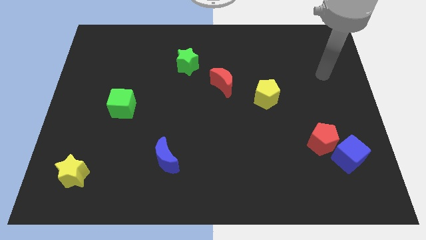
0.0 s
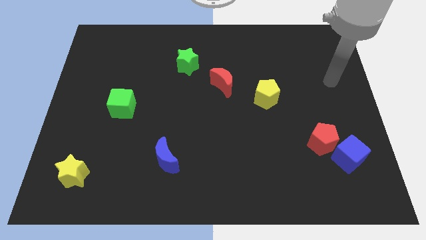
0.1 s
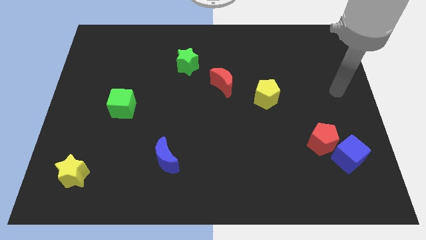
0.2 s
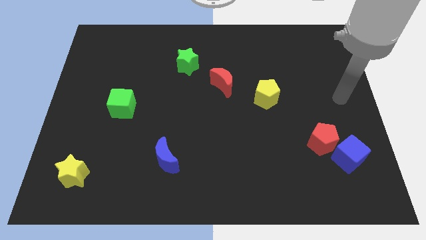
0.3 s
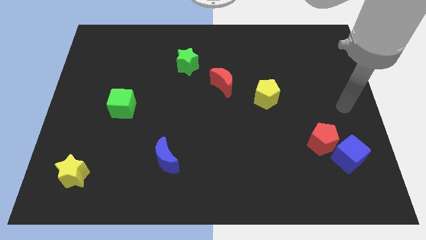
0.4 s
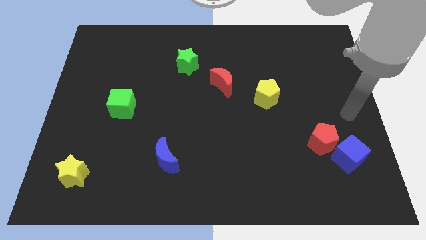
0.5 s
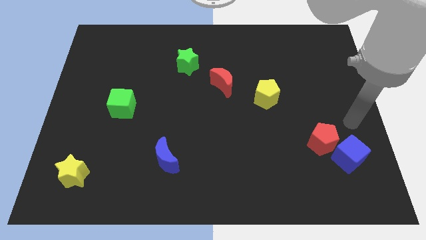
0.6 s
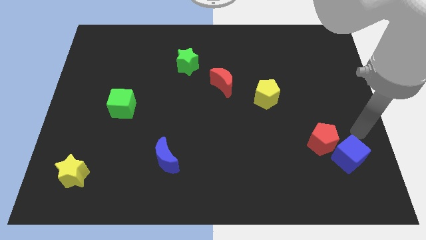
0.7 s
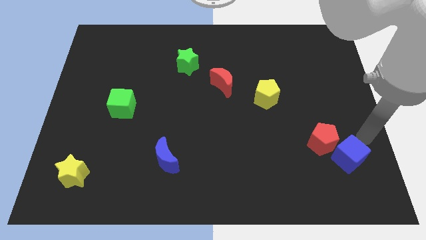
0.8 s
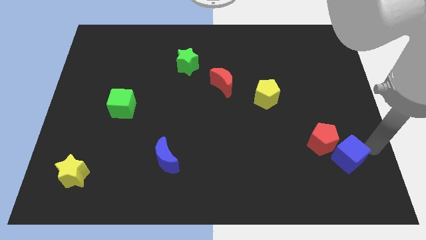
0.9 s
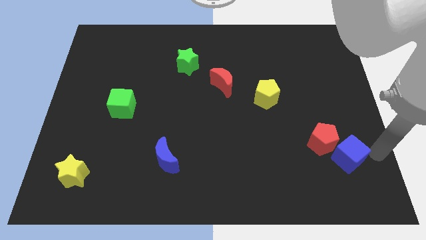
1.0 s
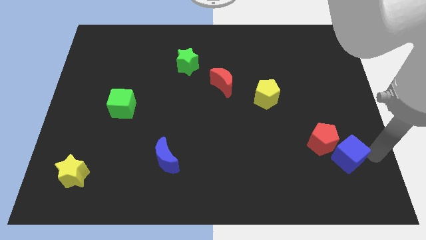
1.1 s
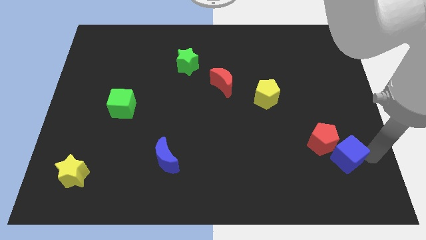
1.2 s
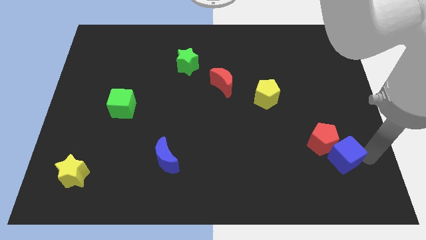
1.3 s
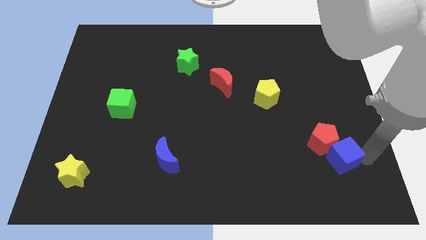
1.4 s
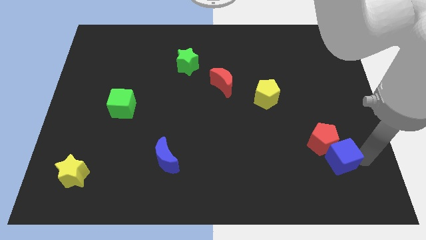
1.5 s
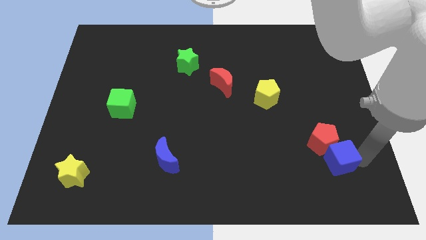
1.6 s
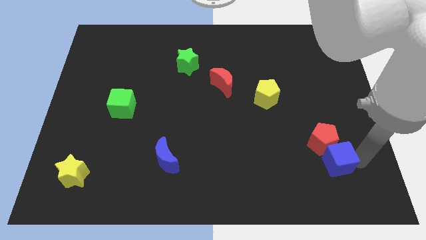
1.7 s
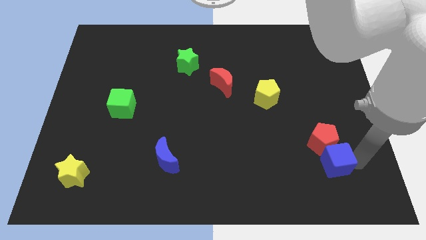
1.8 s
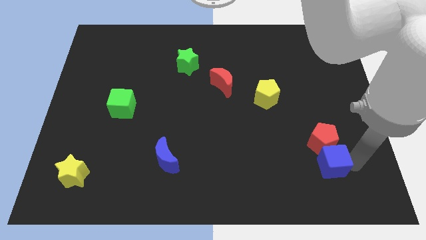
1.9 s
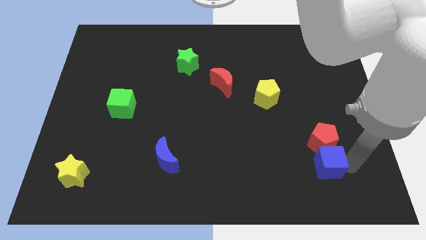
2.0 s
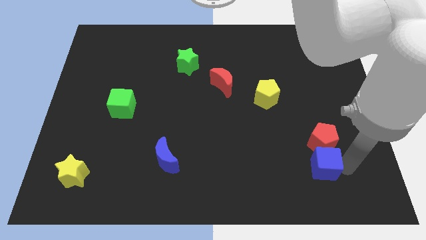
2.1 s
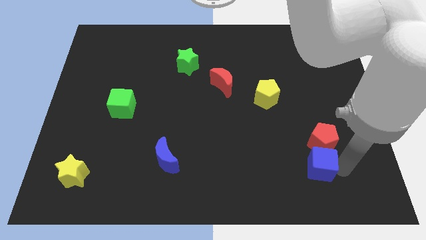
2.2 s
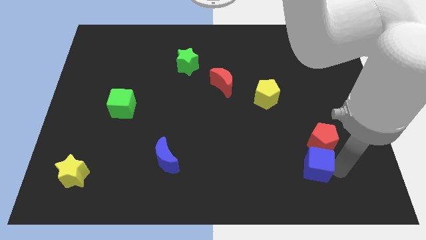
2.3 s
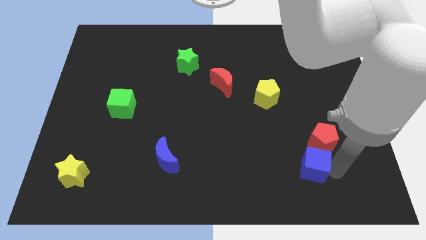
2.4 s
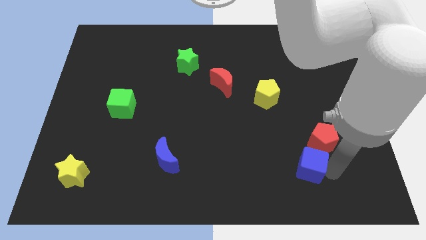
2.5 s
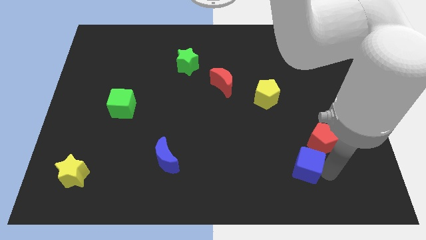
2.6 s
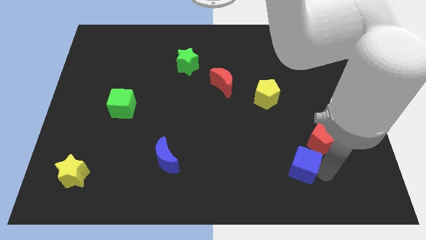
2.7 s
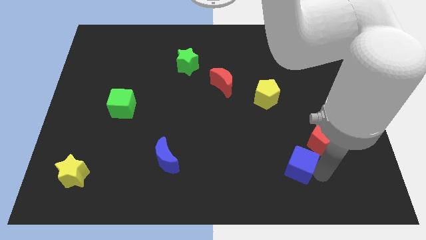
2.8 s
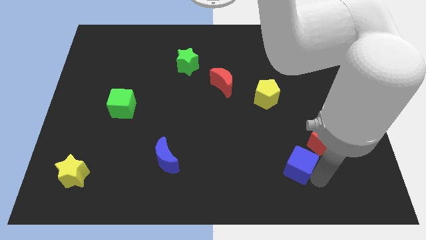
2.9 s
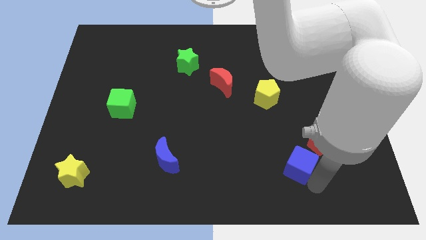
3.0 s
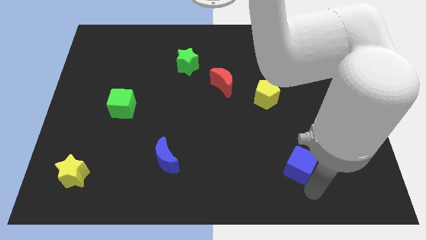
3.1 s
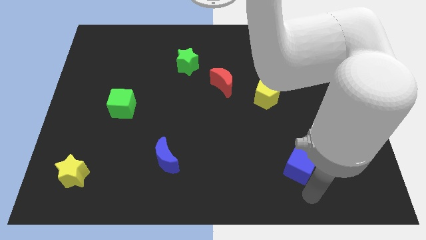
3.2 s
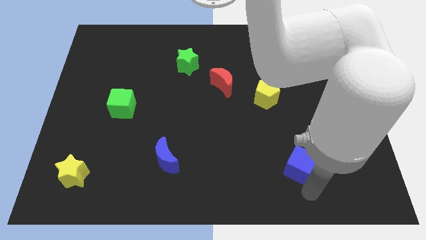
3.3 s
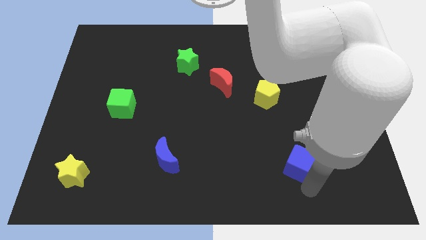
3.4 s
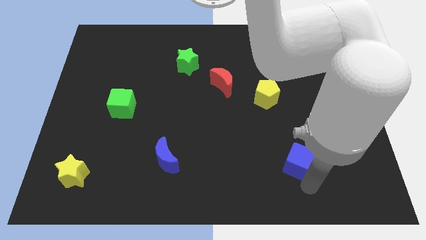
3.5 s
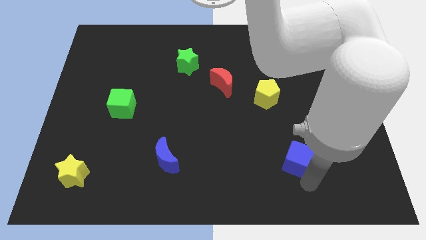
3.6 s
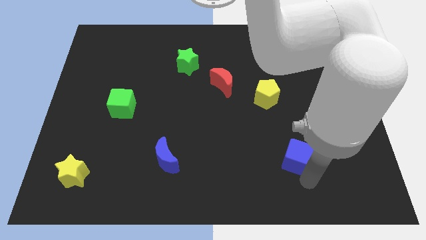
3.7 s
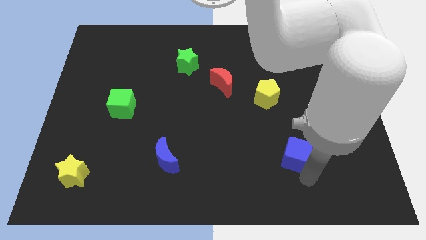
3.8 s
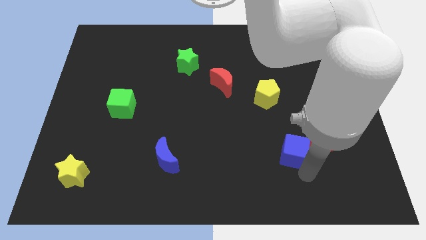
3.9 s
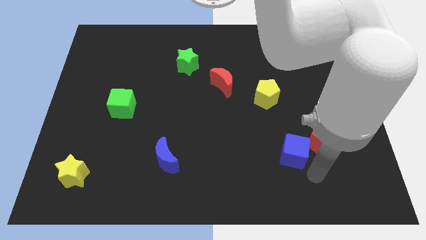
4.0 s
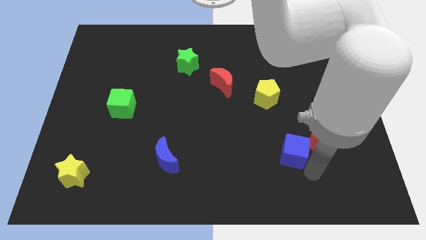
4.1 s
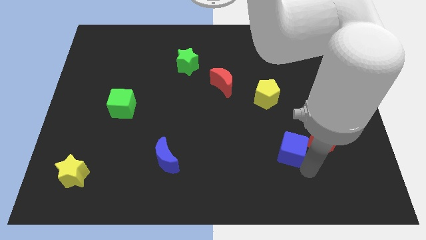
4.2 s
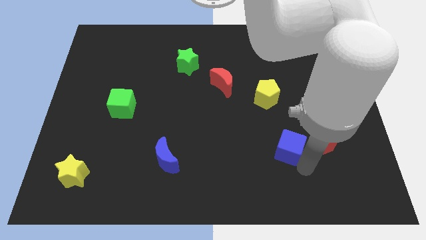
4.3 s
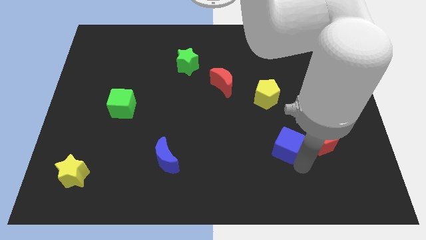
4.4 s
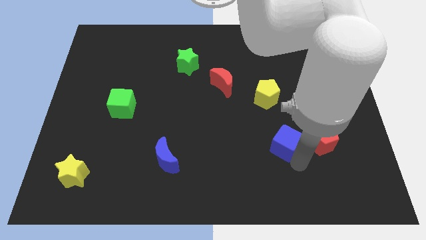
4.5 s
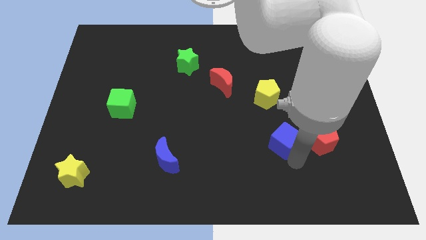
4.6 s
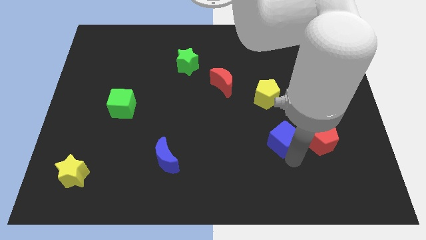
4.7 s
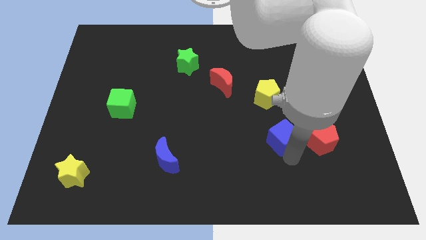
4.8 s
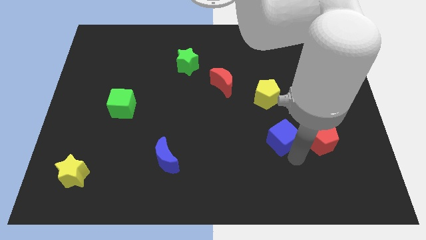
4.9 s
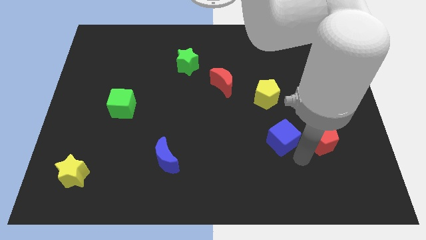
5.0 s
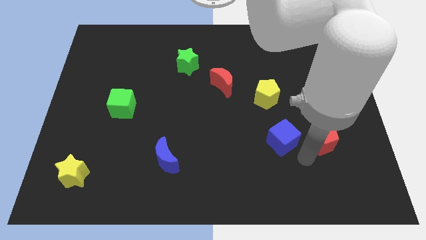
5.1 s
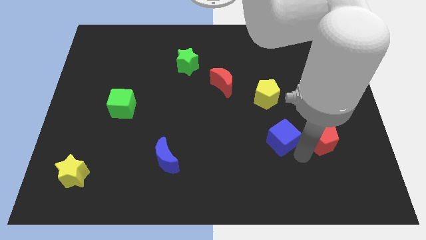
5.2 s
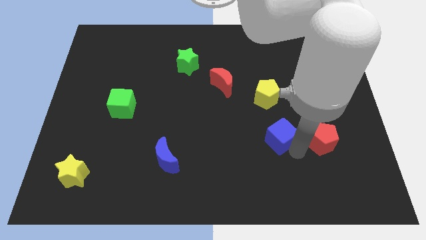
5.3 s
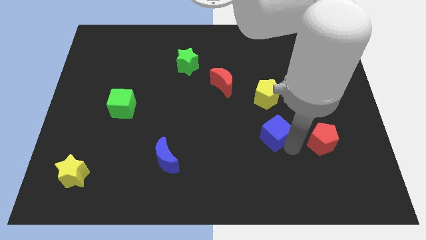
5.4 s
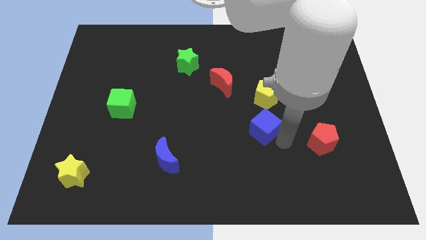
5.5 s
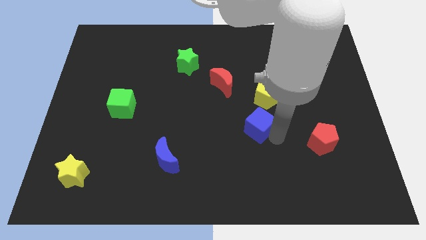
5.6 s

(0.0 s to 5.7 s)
move the blue cube to the bottom left of the yellow pentagon

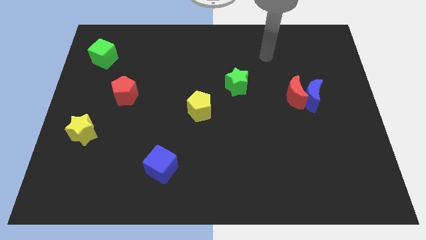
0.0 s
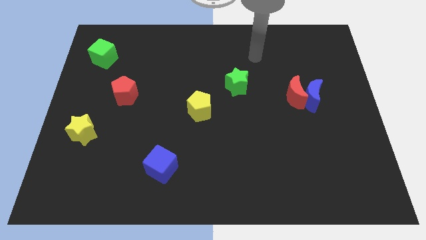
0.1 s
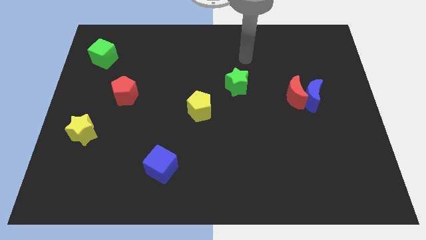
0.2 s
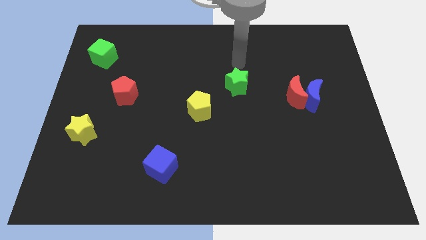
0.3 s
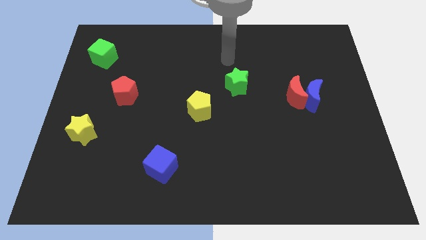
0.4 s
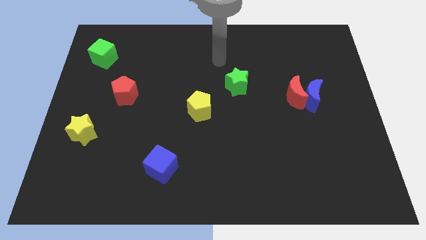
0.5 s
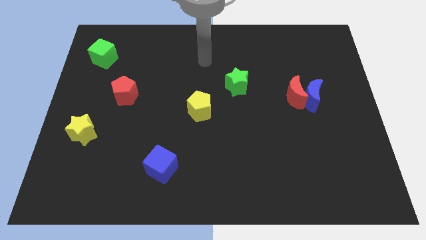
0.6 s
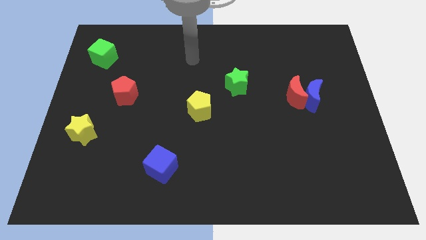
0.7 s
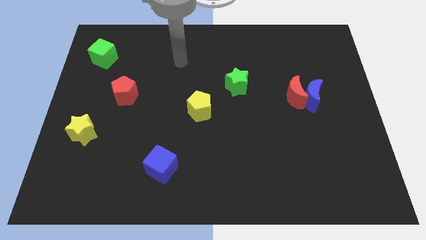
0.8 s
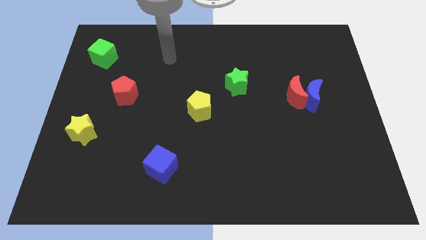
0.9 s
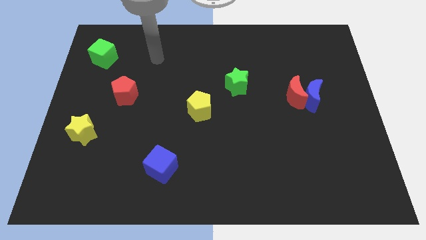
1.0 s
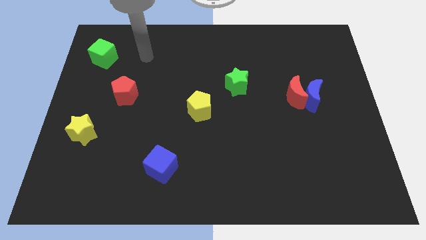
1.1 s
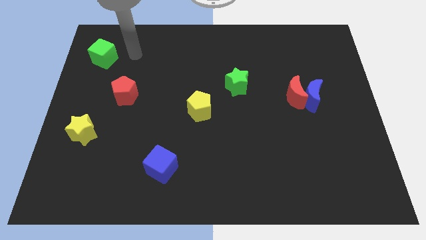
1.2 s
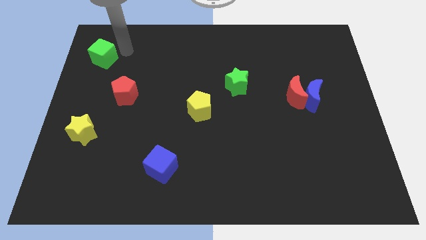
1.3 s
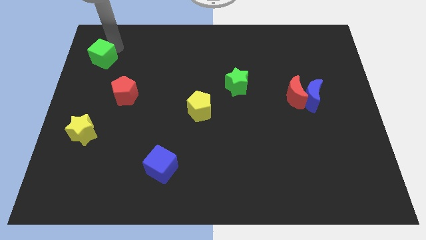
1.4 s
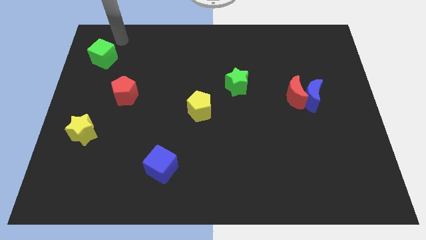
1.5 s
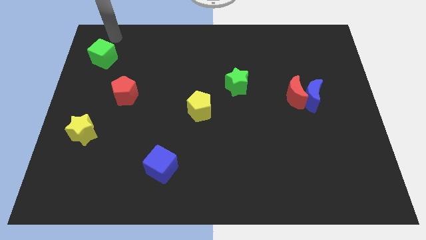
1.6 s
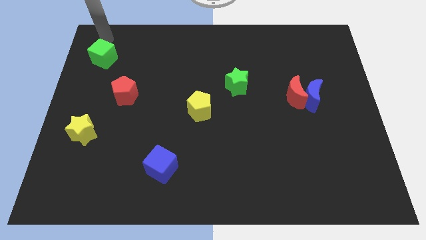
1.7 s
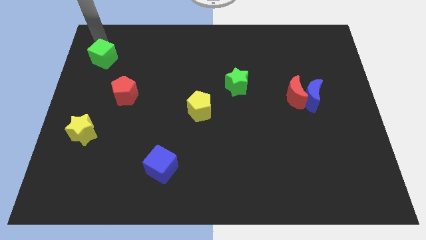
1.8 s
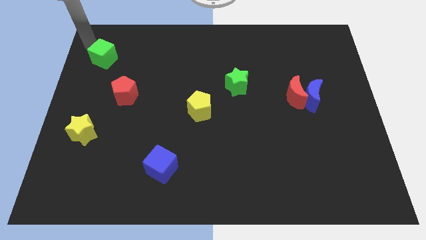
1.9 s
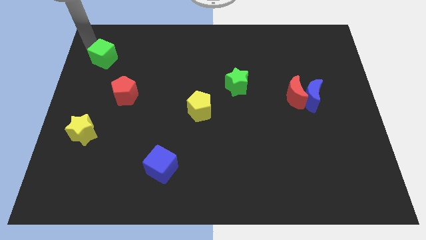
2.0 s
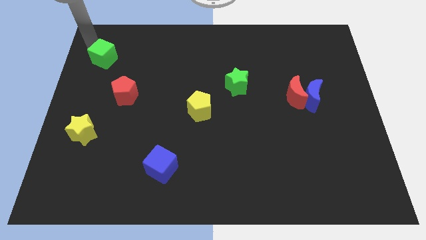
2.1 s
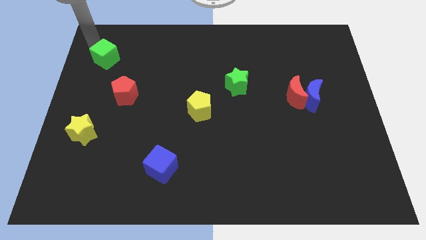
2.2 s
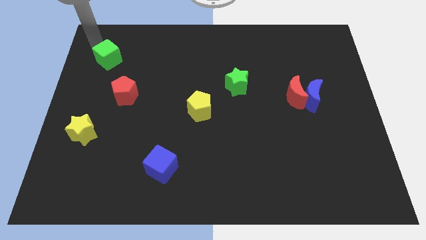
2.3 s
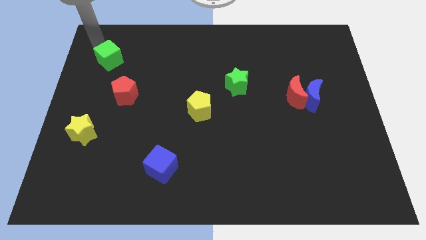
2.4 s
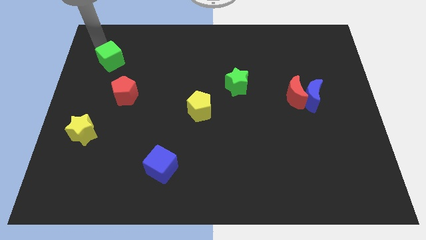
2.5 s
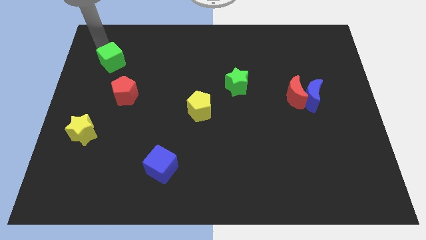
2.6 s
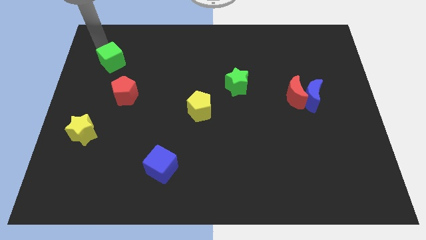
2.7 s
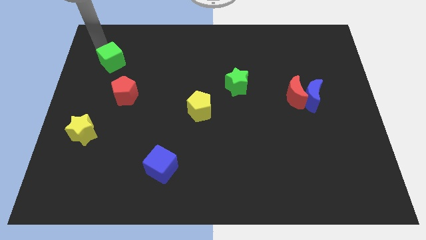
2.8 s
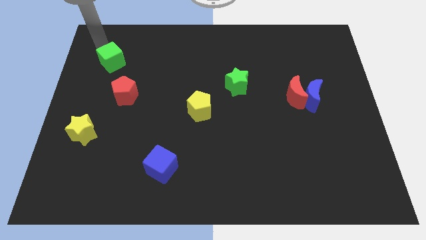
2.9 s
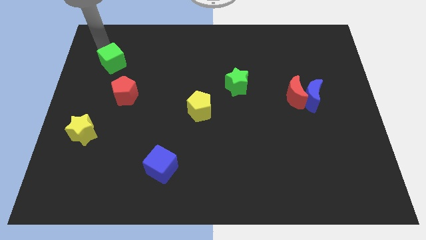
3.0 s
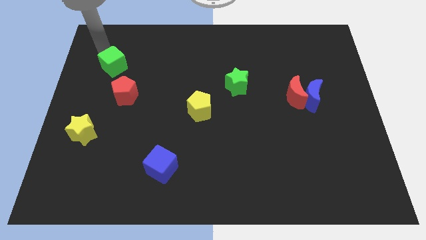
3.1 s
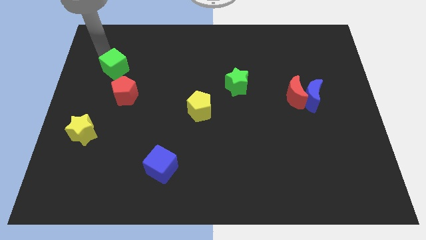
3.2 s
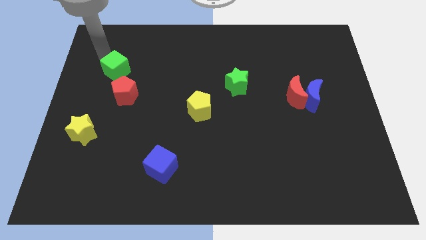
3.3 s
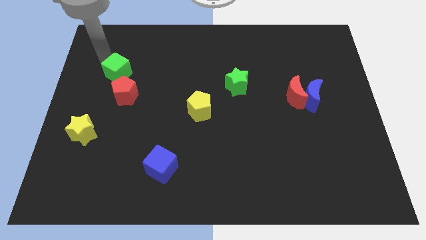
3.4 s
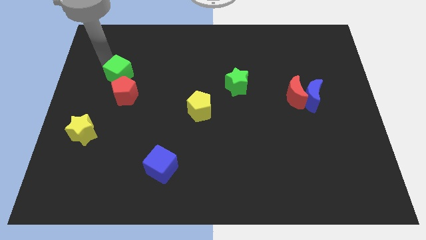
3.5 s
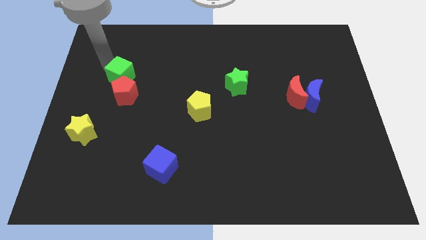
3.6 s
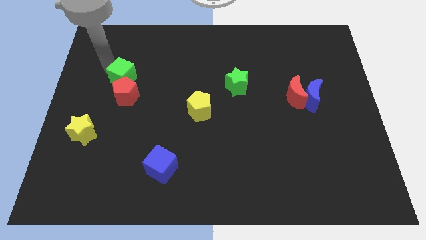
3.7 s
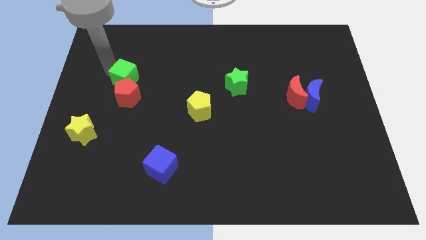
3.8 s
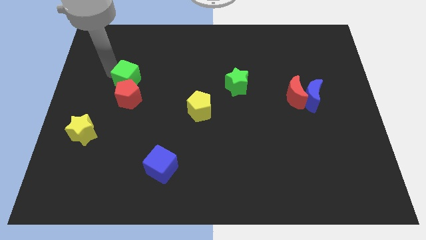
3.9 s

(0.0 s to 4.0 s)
put the green cube to the top right of the red pentagon
